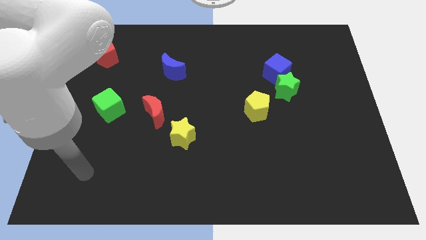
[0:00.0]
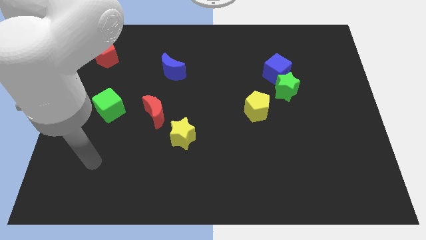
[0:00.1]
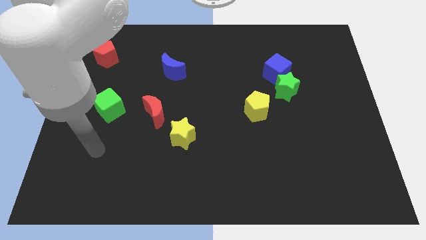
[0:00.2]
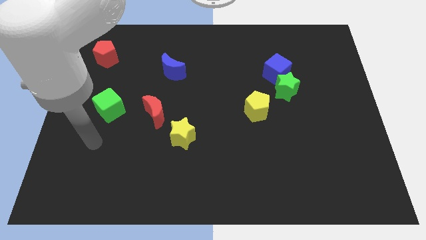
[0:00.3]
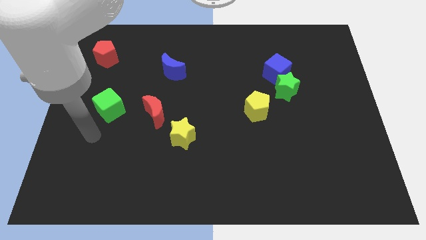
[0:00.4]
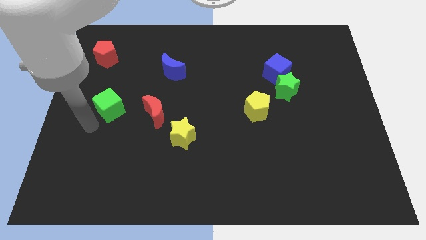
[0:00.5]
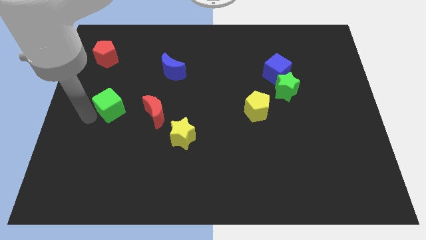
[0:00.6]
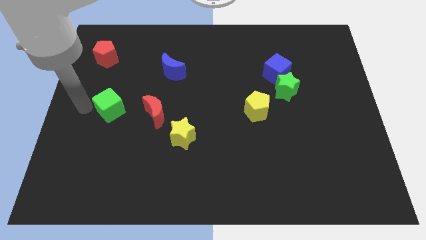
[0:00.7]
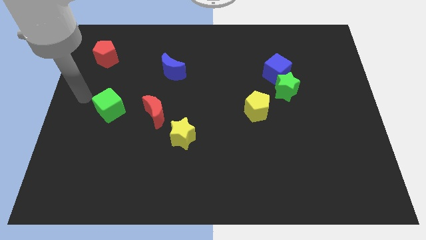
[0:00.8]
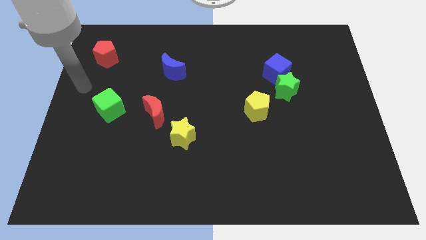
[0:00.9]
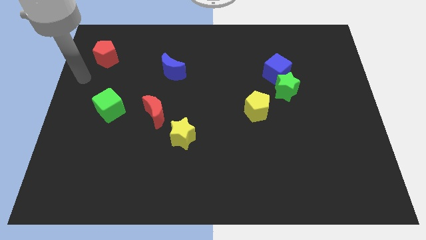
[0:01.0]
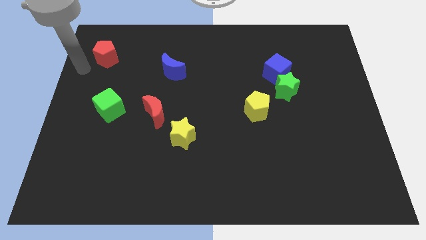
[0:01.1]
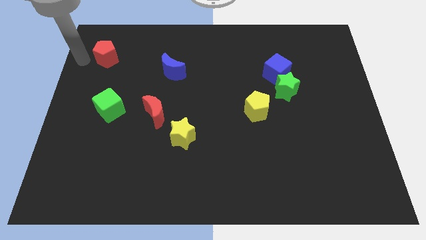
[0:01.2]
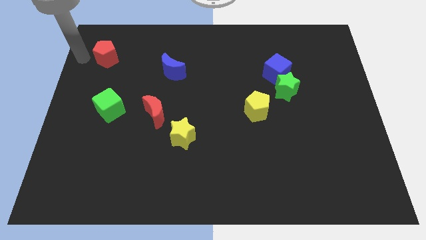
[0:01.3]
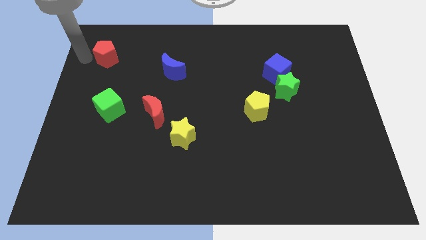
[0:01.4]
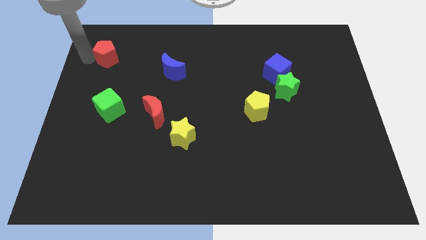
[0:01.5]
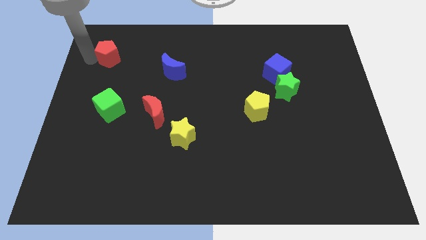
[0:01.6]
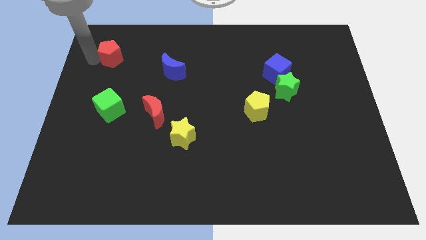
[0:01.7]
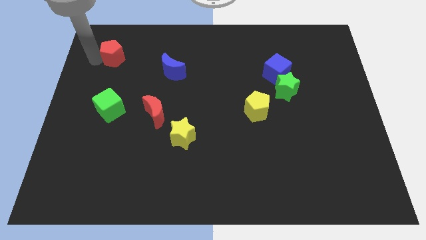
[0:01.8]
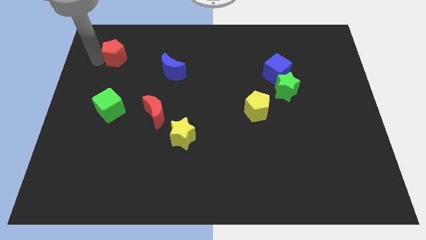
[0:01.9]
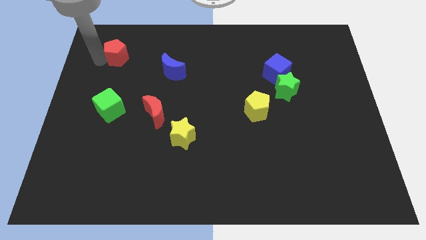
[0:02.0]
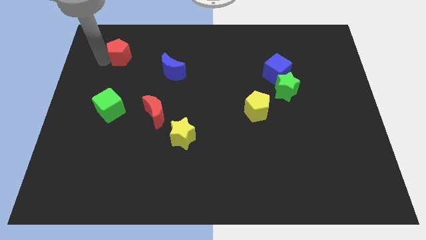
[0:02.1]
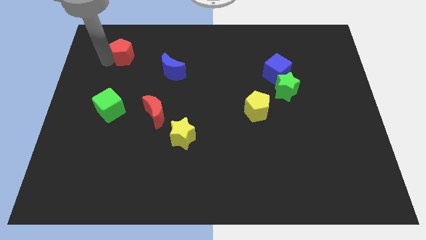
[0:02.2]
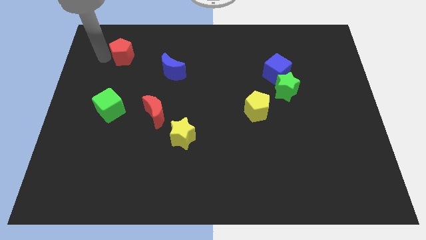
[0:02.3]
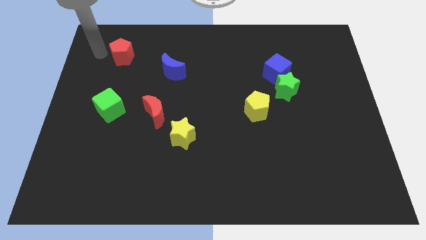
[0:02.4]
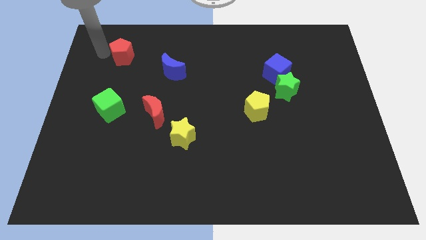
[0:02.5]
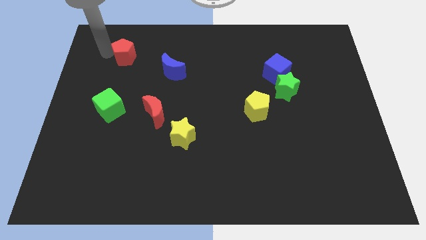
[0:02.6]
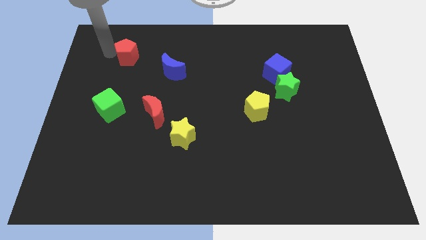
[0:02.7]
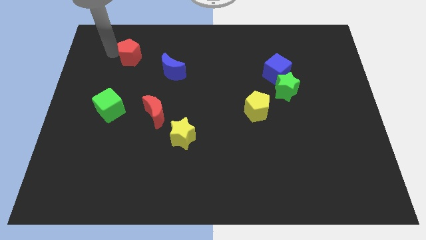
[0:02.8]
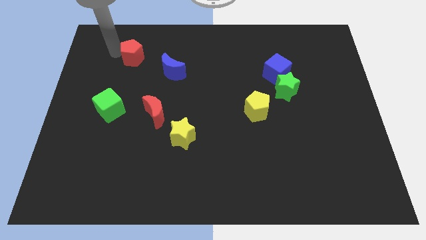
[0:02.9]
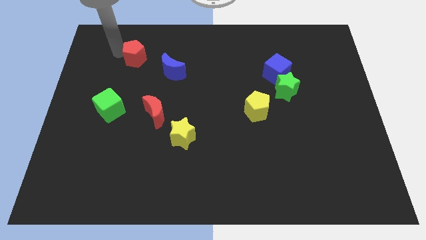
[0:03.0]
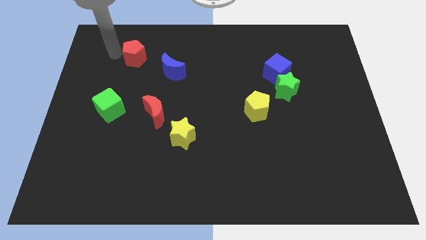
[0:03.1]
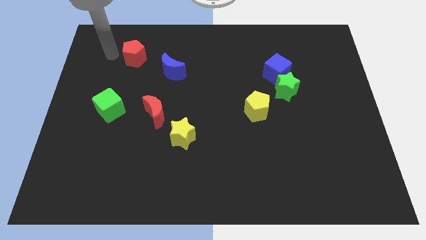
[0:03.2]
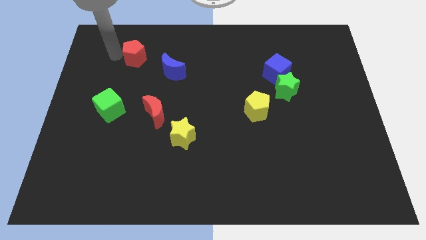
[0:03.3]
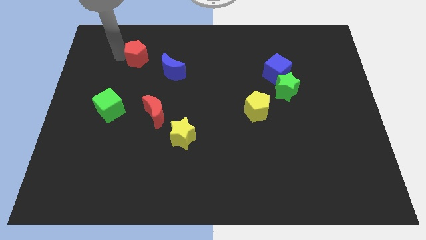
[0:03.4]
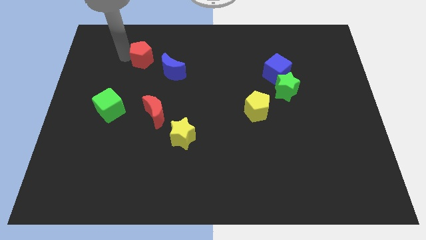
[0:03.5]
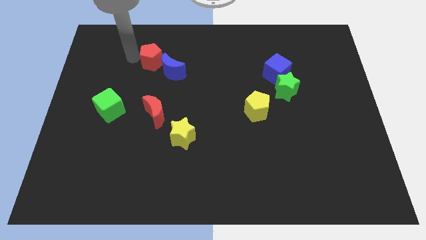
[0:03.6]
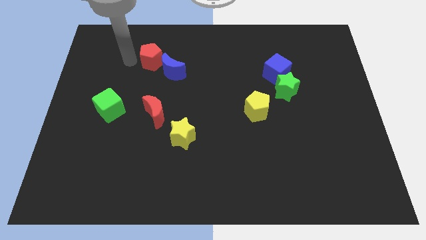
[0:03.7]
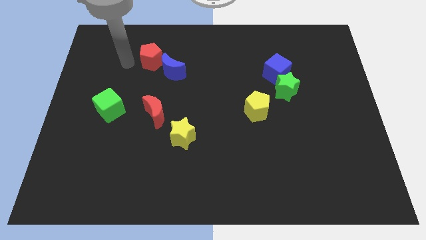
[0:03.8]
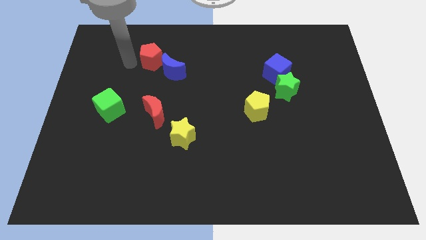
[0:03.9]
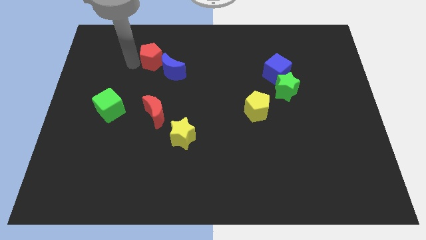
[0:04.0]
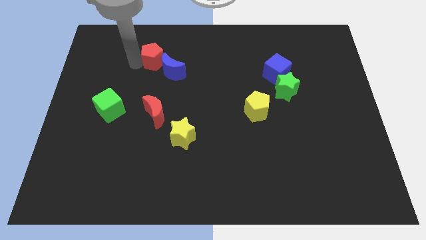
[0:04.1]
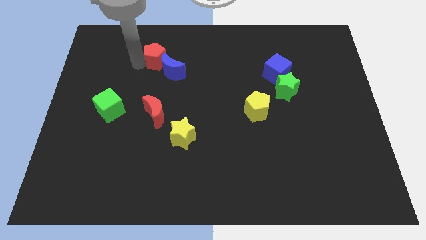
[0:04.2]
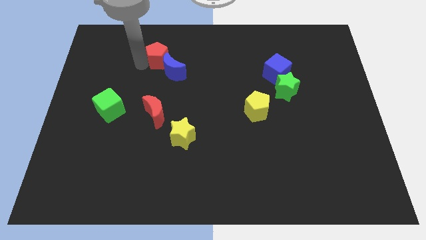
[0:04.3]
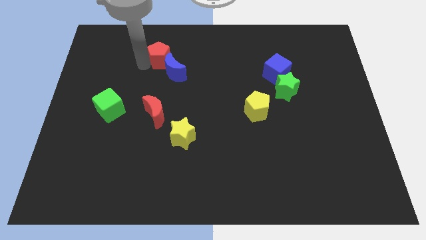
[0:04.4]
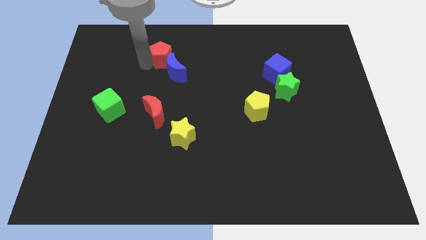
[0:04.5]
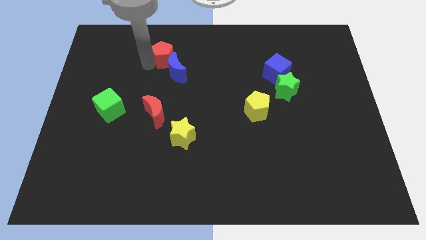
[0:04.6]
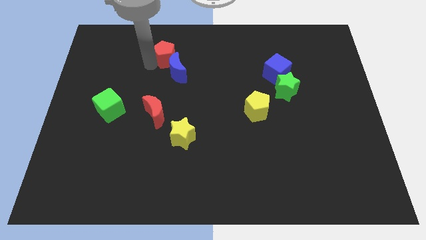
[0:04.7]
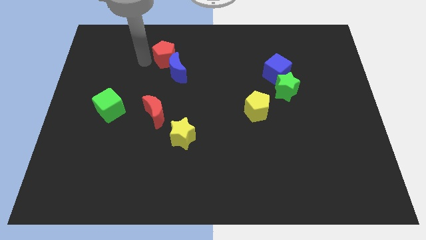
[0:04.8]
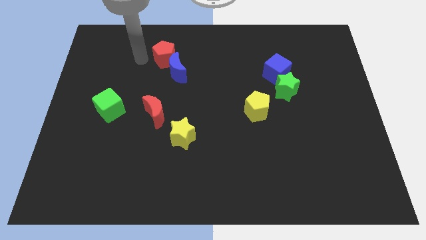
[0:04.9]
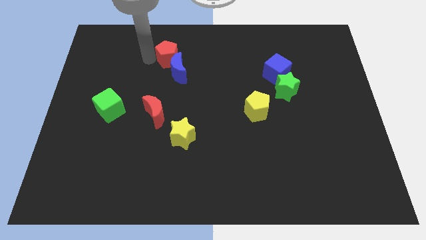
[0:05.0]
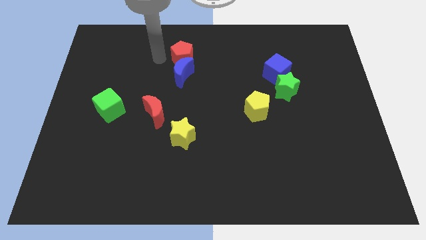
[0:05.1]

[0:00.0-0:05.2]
push the red pentagon right

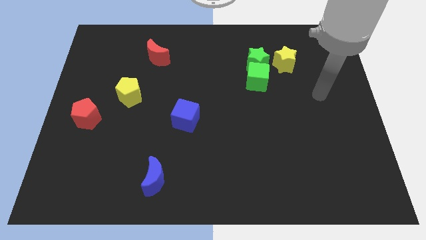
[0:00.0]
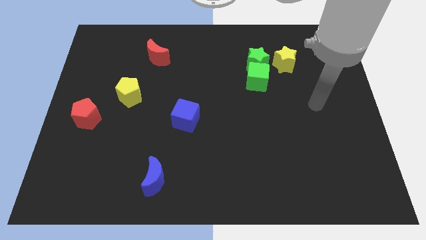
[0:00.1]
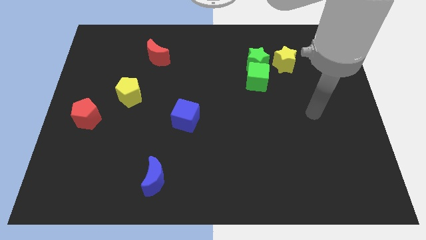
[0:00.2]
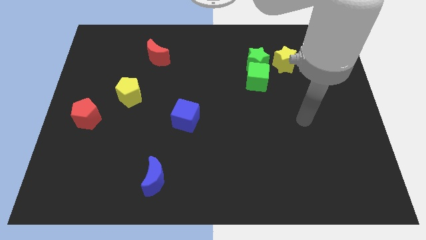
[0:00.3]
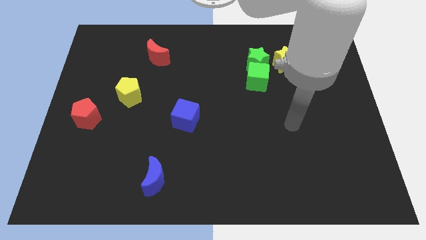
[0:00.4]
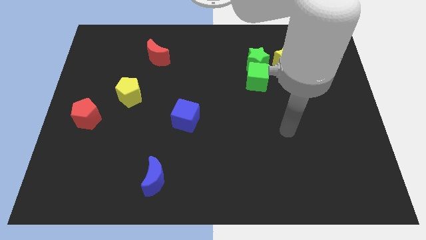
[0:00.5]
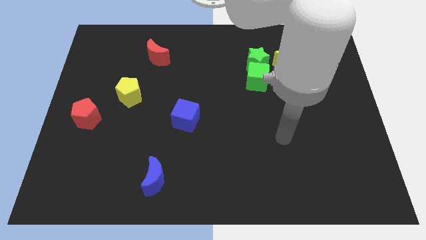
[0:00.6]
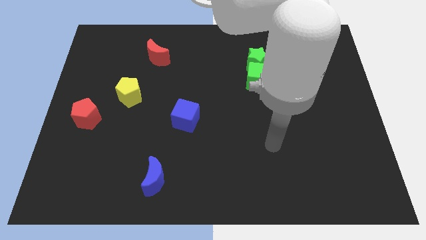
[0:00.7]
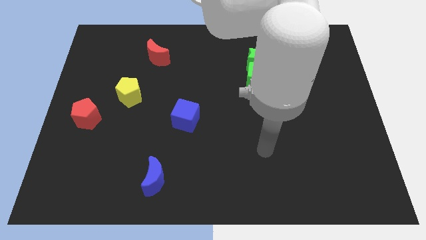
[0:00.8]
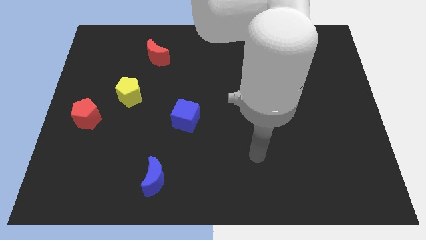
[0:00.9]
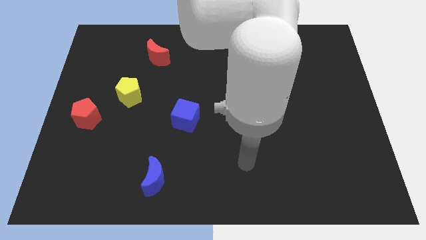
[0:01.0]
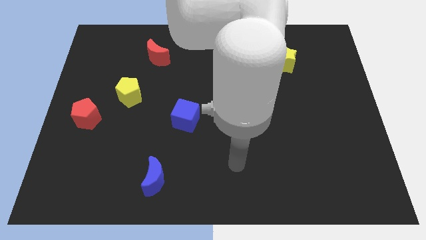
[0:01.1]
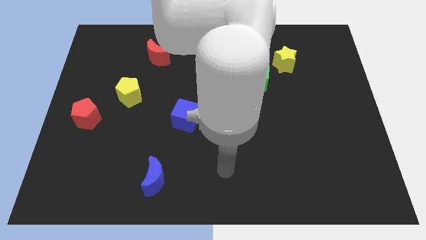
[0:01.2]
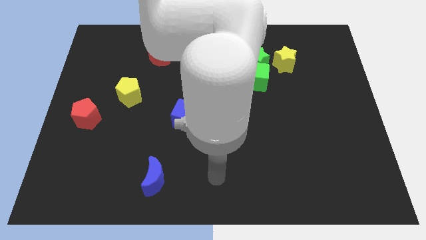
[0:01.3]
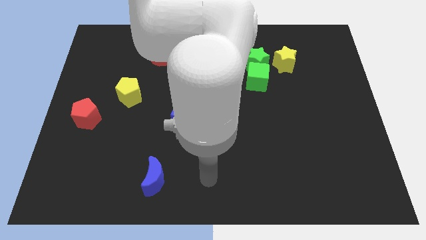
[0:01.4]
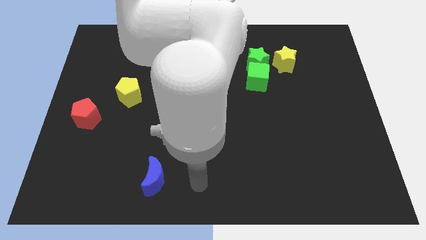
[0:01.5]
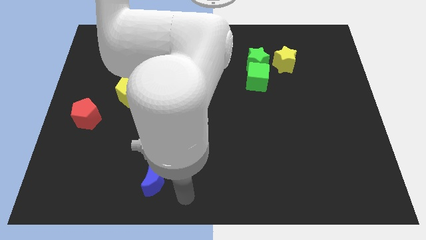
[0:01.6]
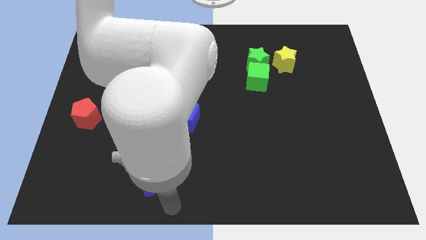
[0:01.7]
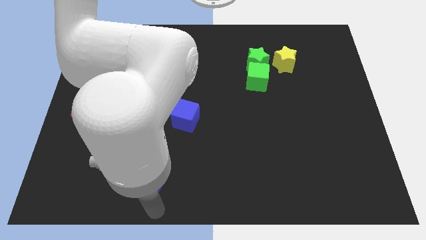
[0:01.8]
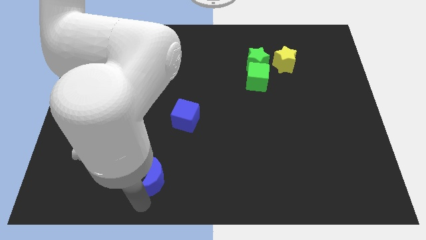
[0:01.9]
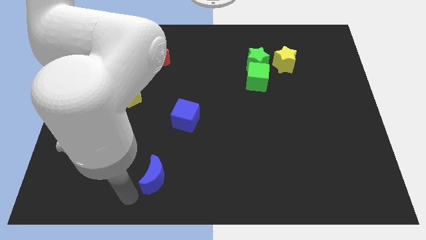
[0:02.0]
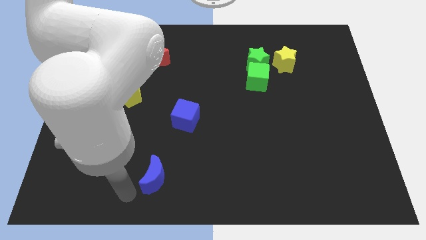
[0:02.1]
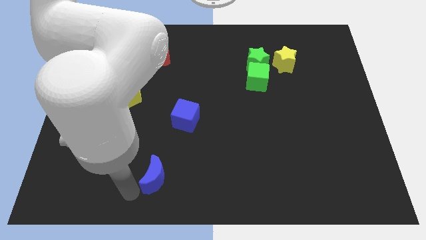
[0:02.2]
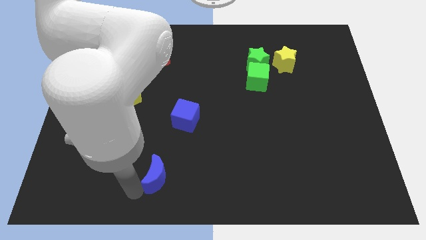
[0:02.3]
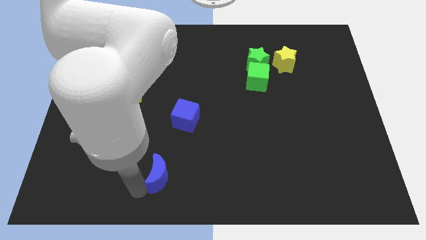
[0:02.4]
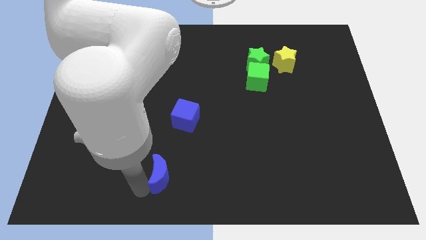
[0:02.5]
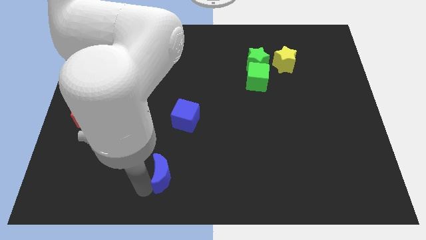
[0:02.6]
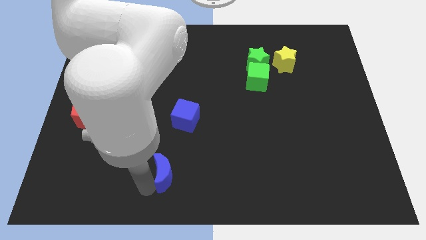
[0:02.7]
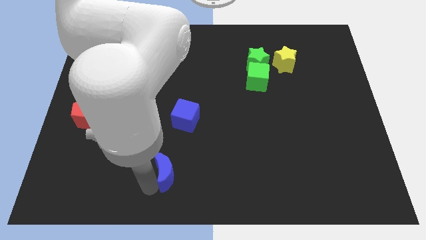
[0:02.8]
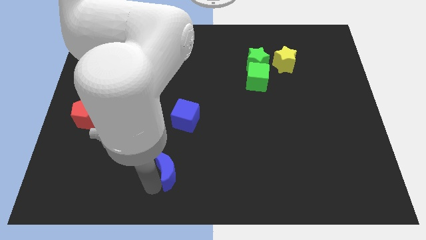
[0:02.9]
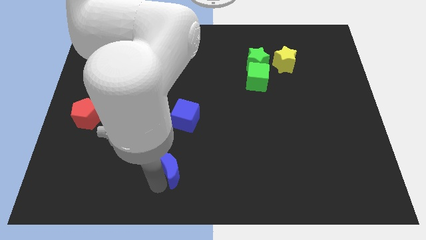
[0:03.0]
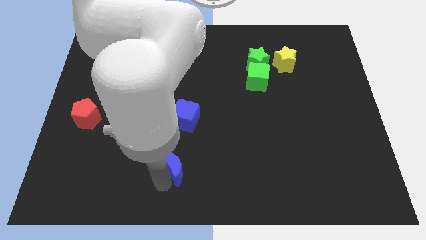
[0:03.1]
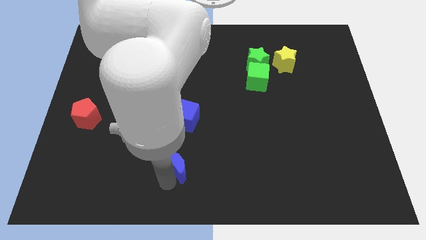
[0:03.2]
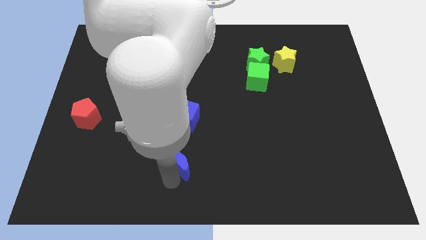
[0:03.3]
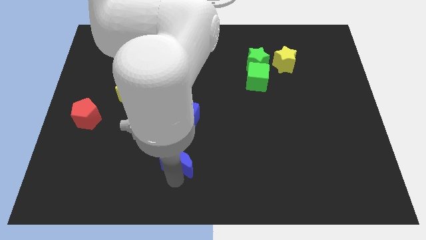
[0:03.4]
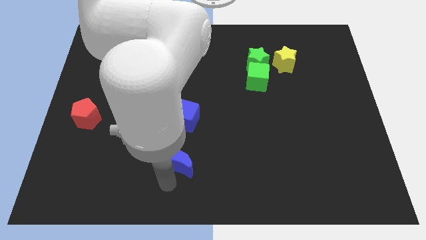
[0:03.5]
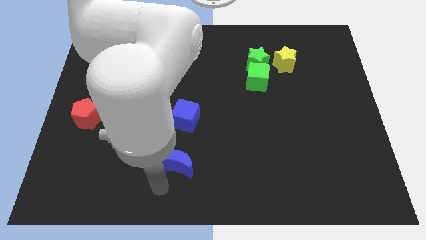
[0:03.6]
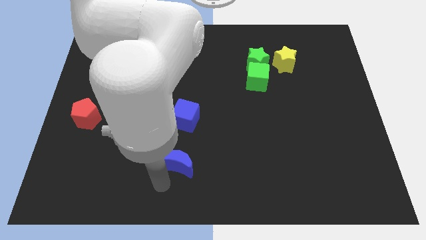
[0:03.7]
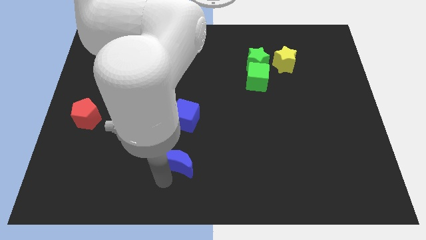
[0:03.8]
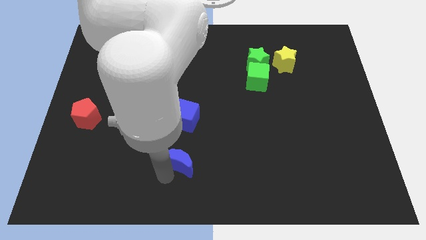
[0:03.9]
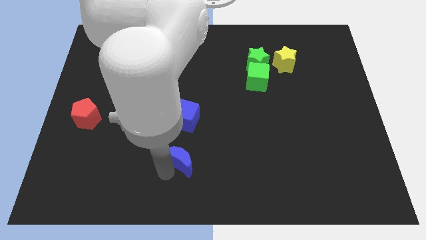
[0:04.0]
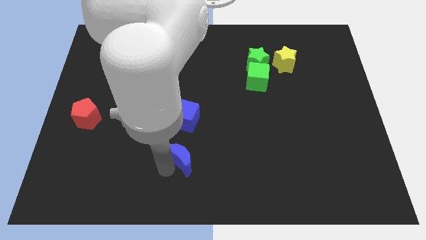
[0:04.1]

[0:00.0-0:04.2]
slide the blue moon up and right a bit
